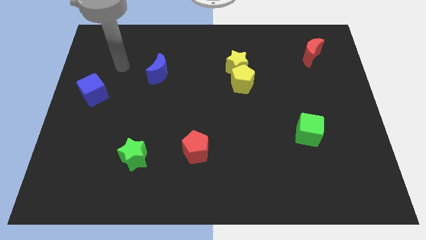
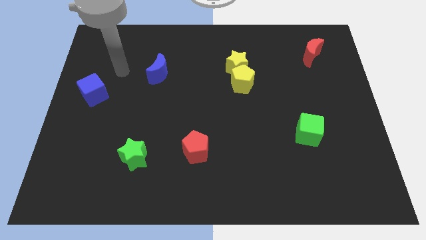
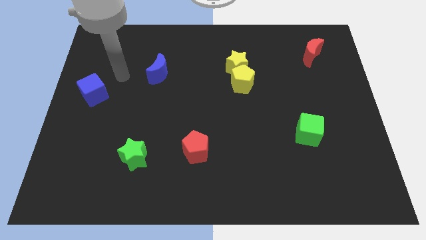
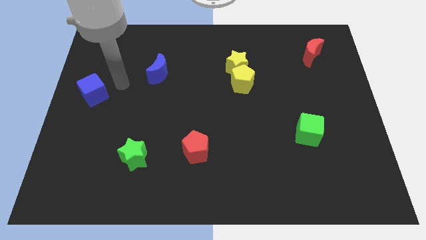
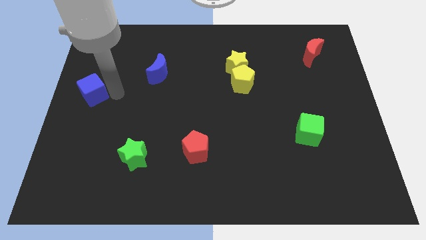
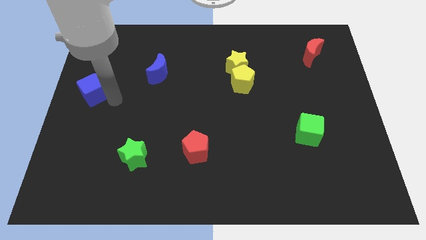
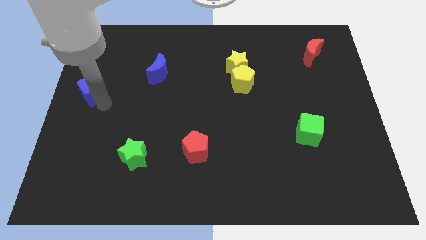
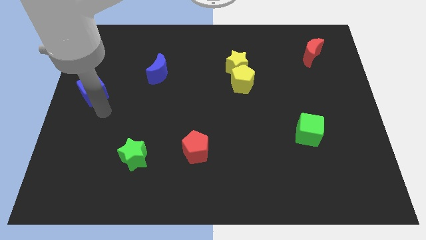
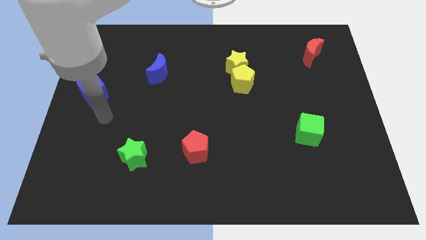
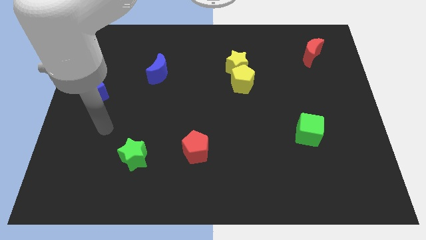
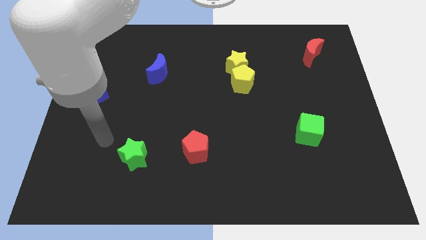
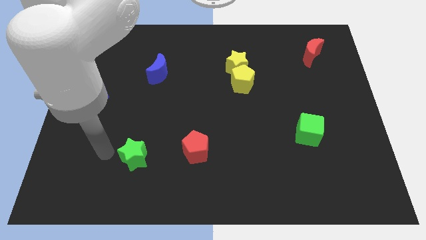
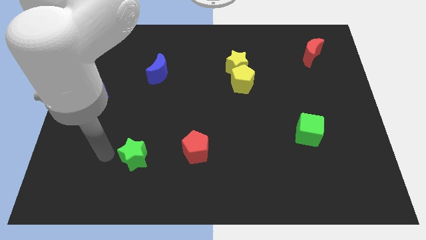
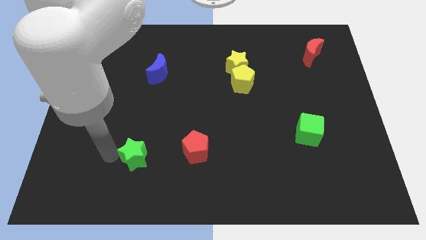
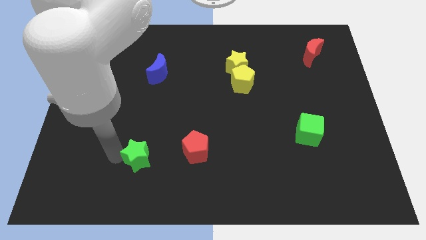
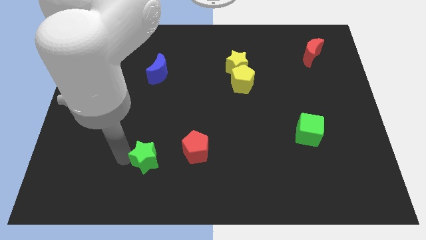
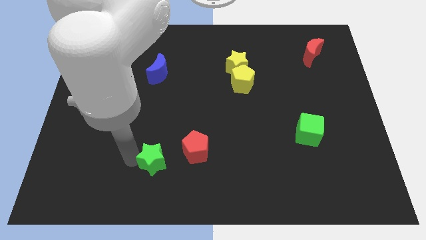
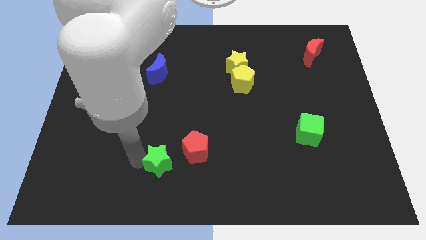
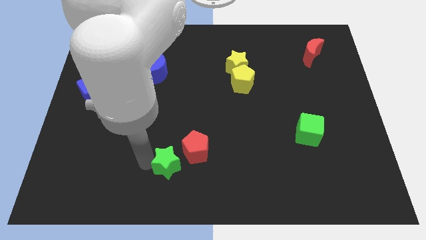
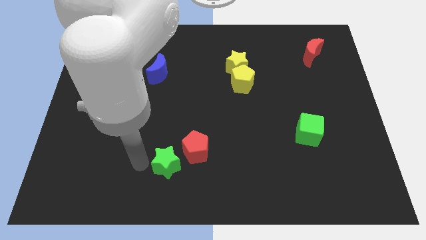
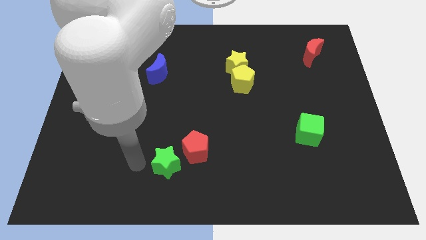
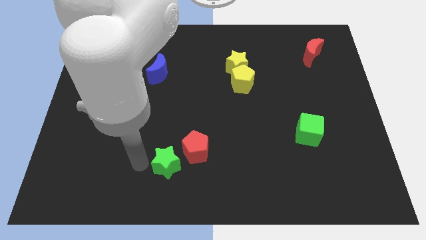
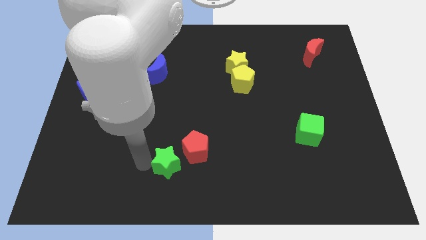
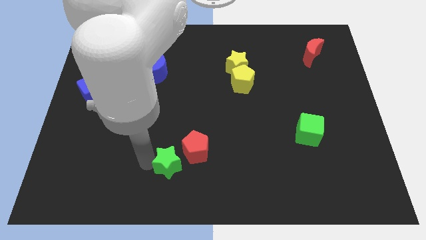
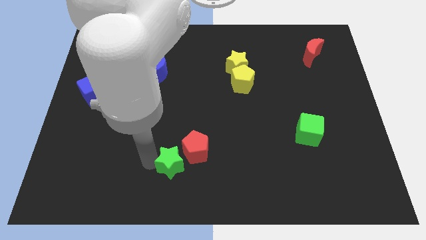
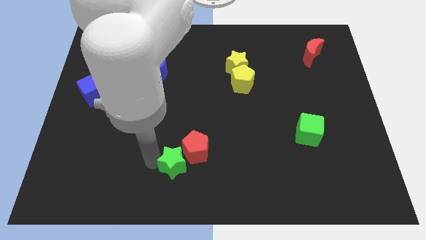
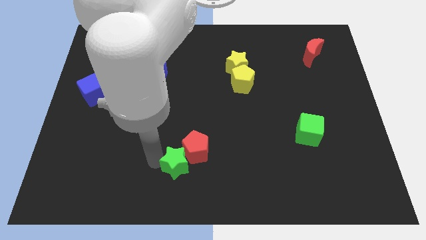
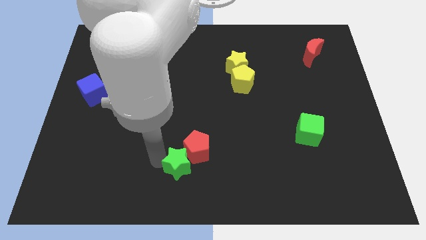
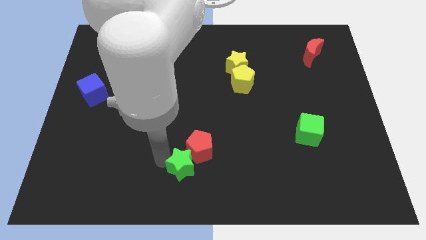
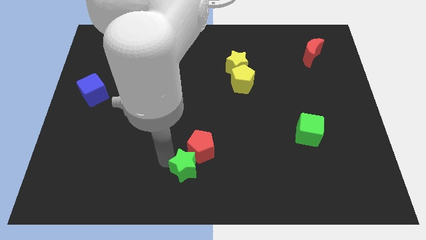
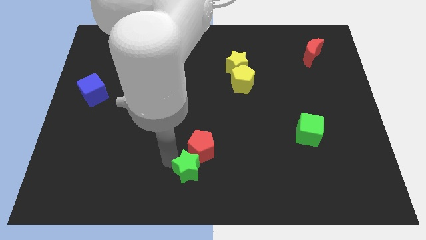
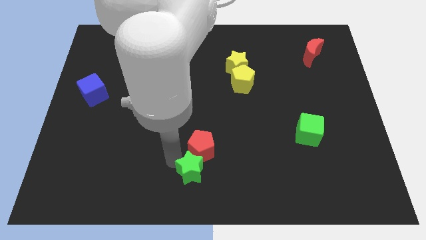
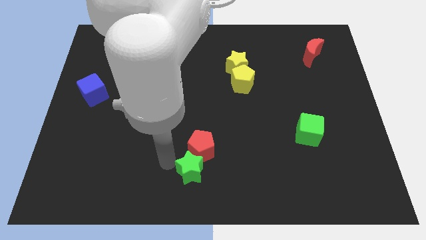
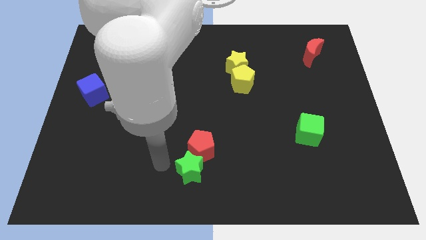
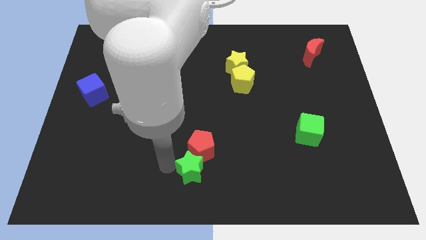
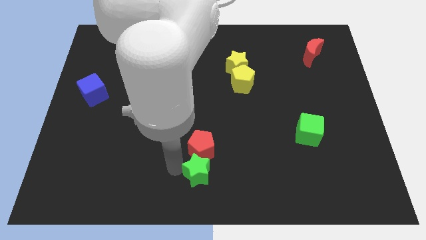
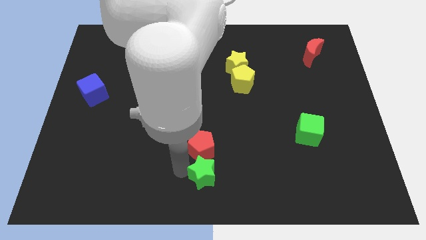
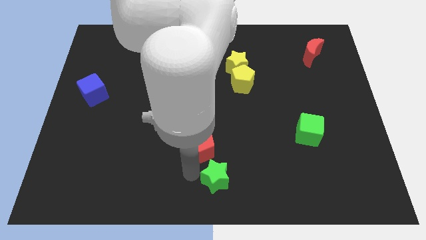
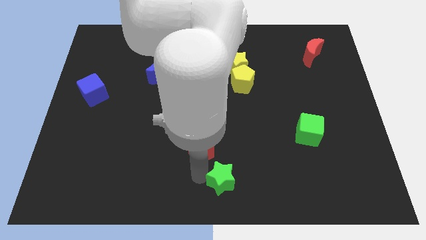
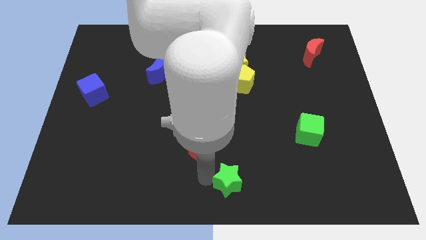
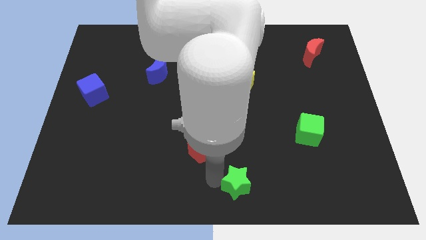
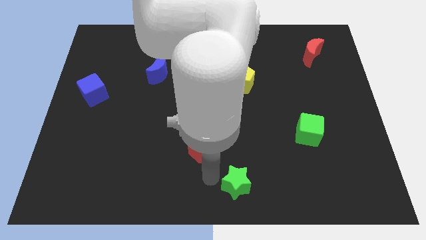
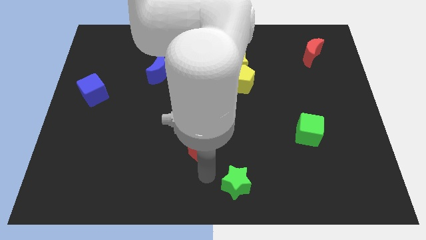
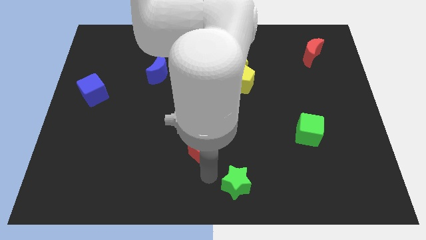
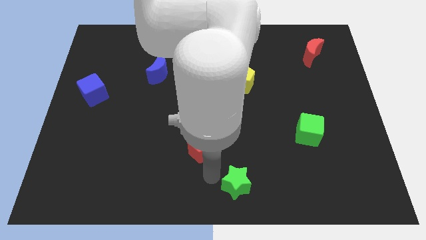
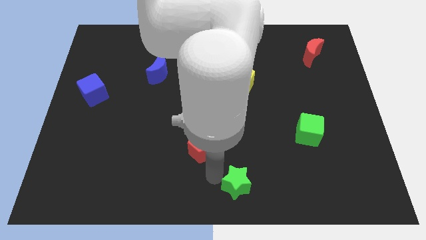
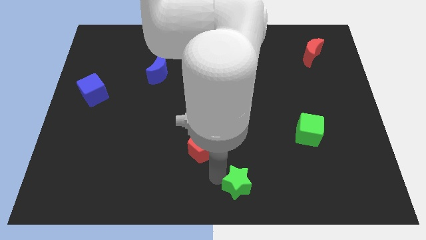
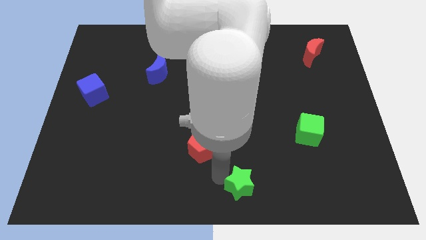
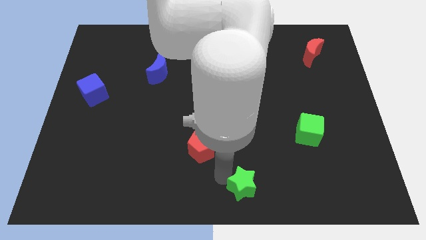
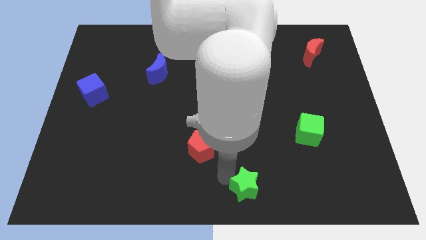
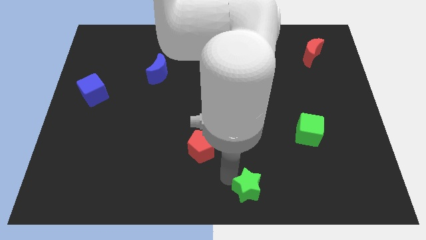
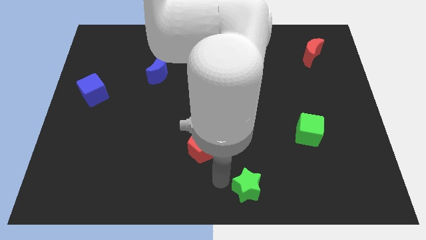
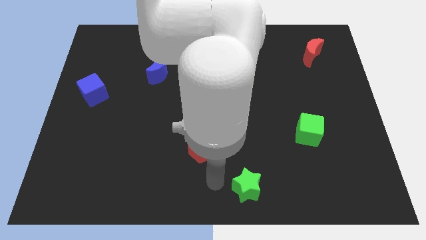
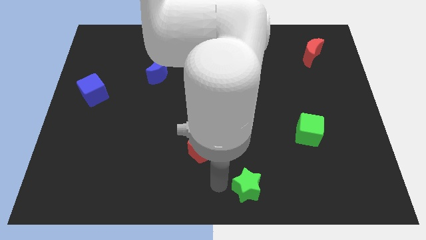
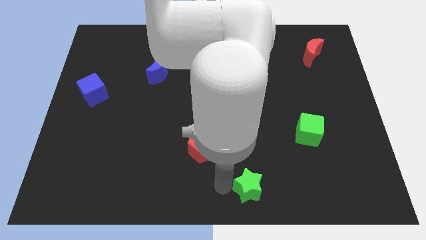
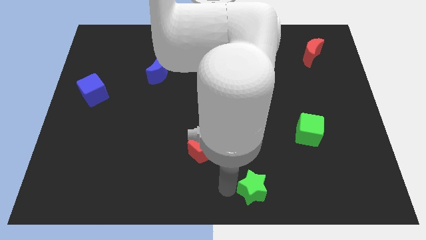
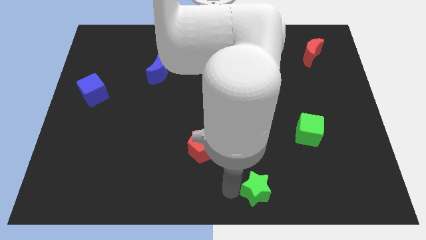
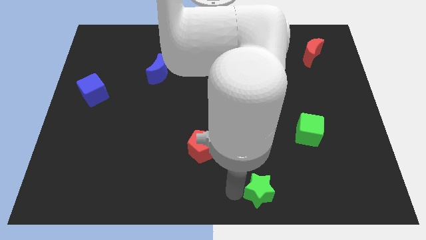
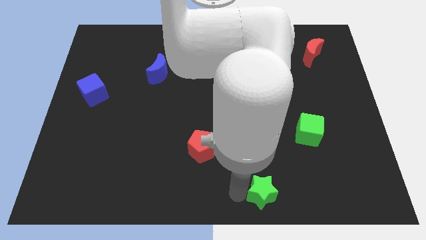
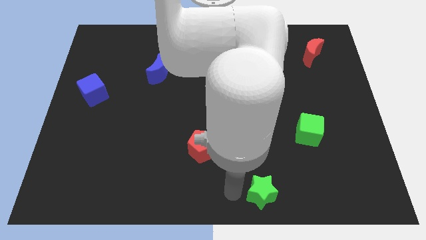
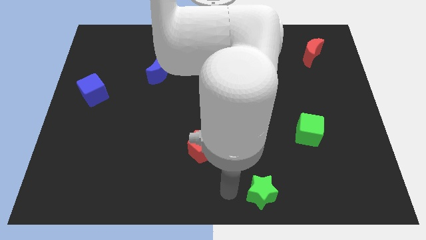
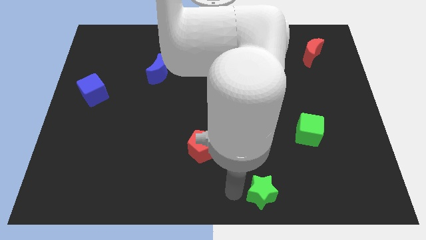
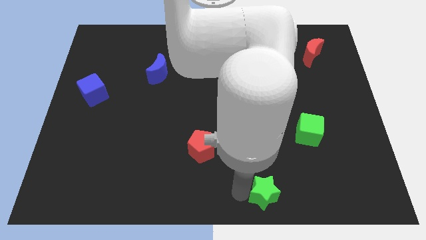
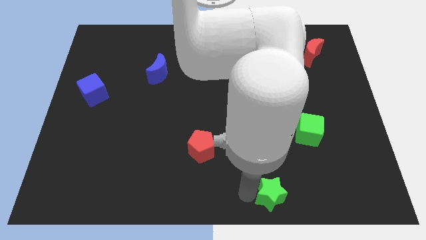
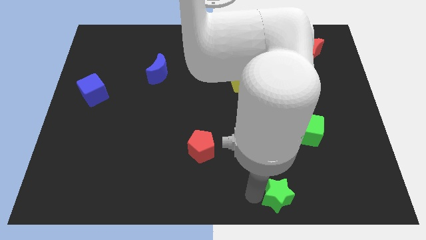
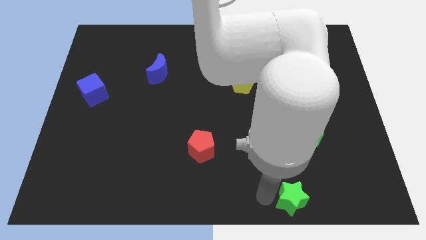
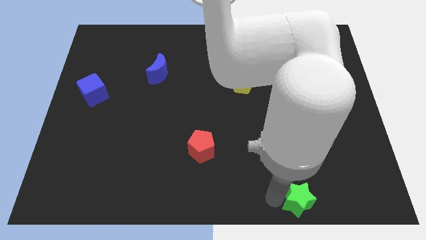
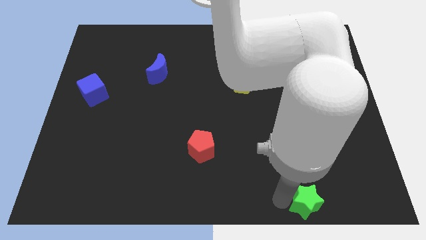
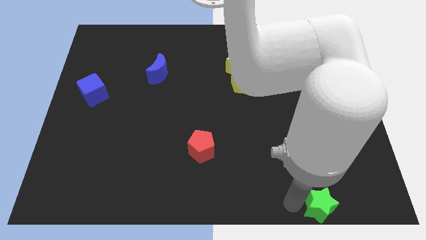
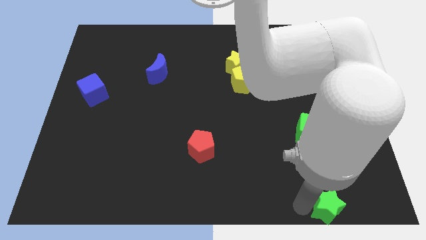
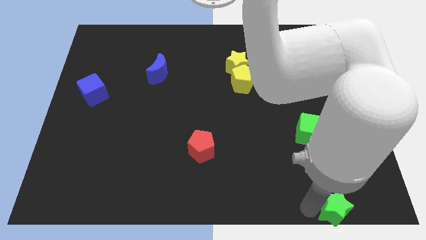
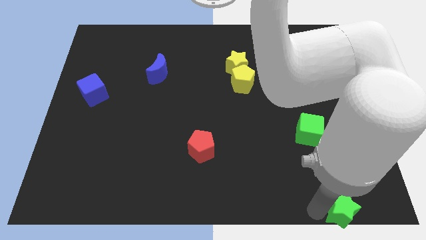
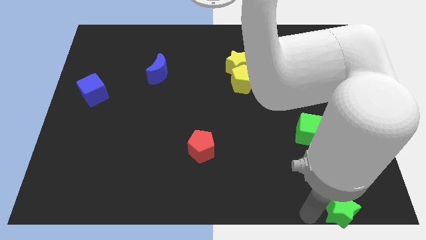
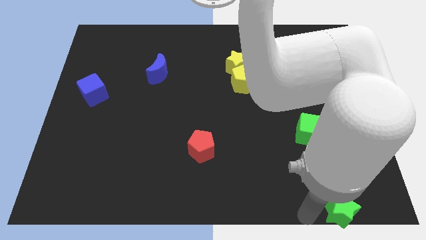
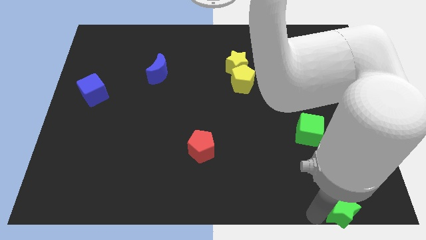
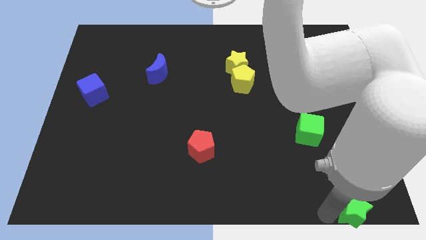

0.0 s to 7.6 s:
move the green star to the bottom right of the board
